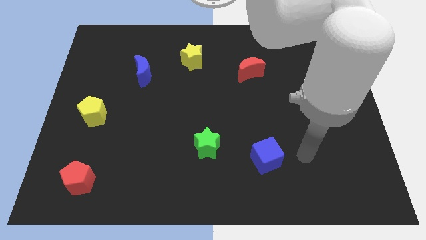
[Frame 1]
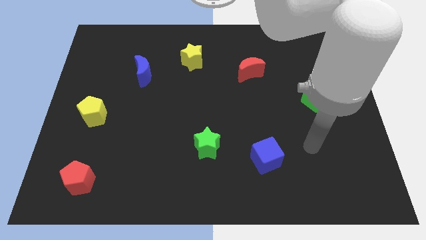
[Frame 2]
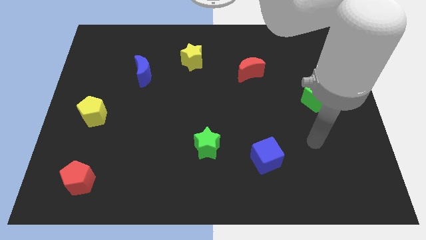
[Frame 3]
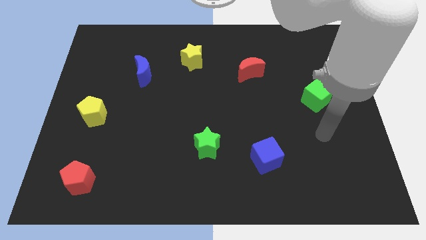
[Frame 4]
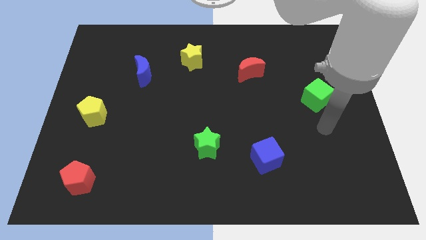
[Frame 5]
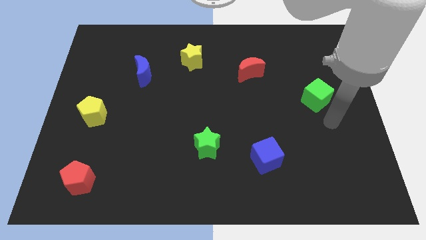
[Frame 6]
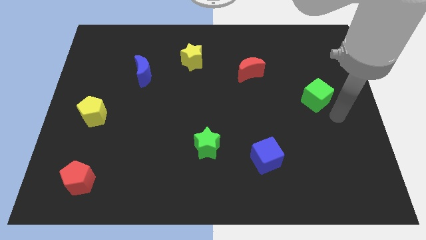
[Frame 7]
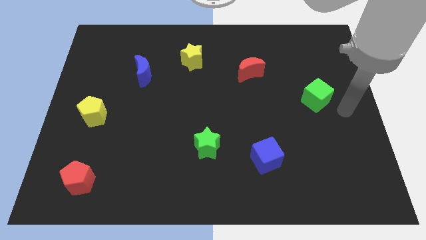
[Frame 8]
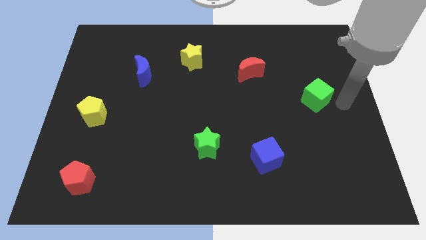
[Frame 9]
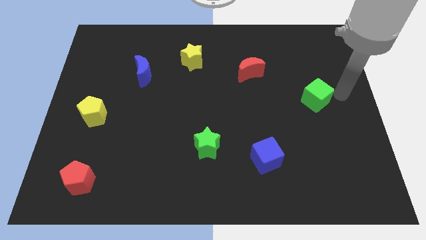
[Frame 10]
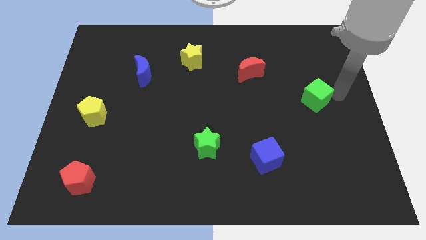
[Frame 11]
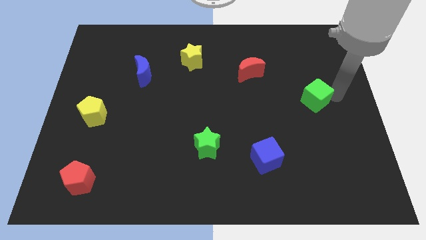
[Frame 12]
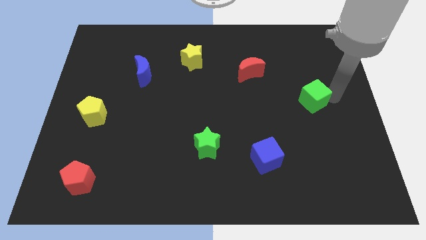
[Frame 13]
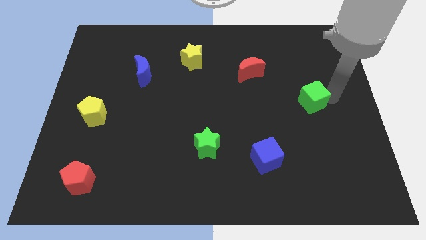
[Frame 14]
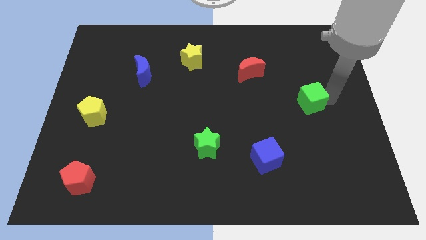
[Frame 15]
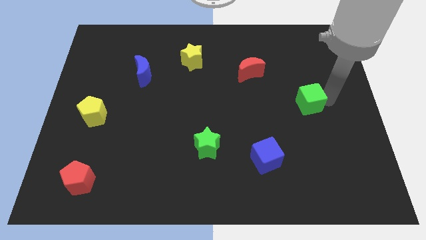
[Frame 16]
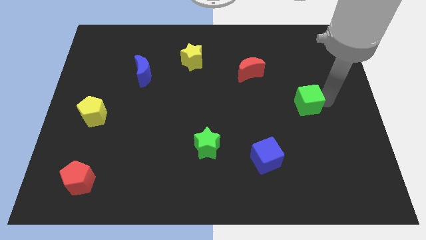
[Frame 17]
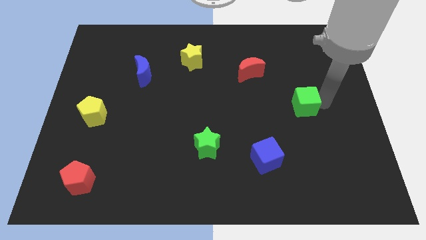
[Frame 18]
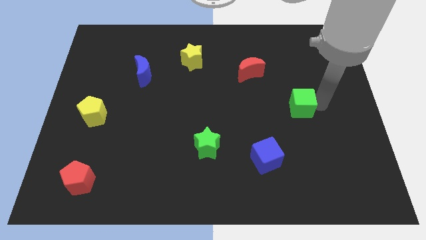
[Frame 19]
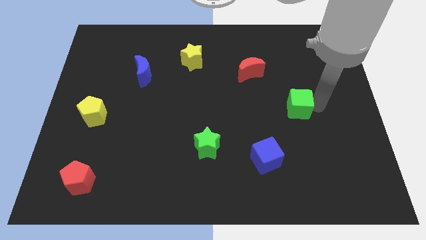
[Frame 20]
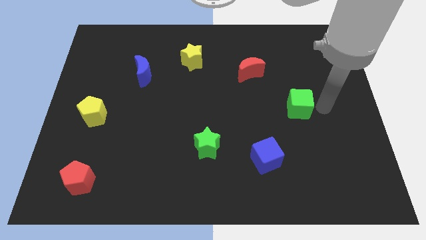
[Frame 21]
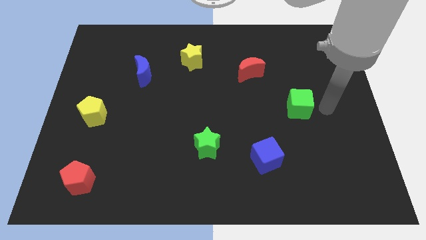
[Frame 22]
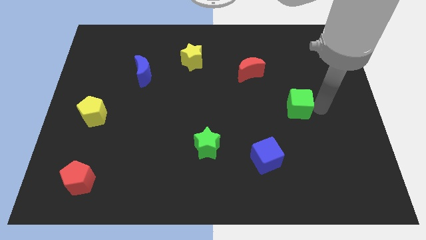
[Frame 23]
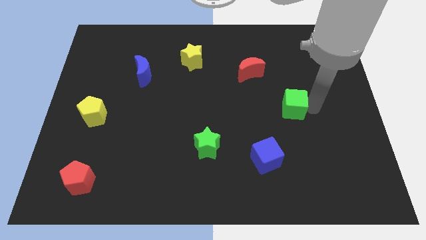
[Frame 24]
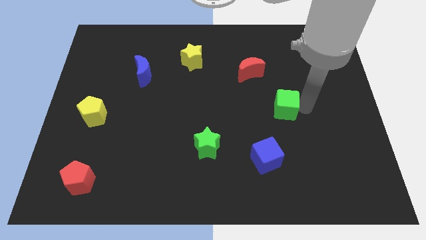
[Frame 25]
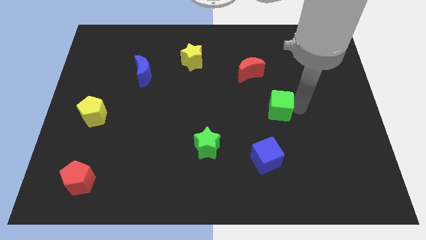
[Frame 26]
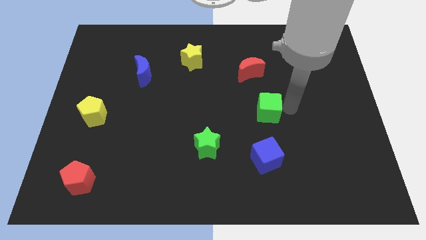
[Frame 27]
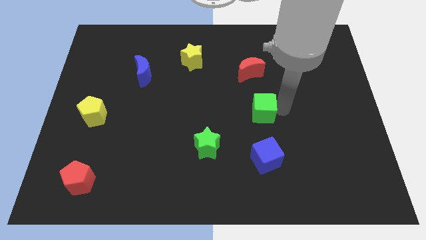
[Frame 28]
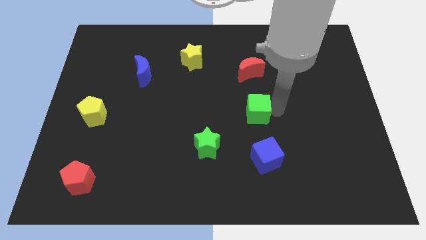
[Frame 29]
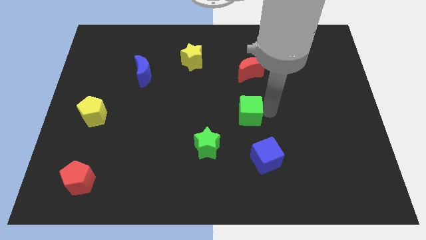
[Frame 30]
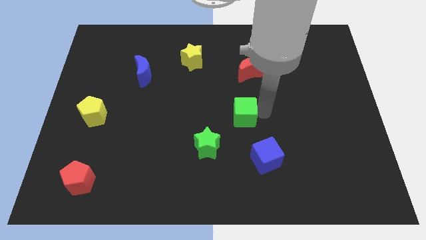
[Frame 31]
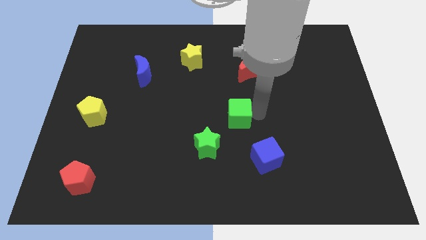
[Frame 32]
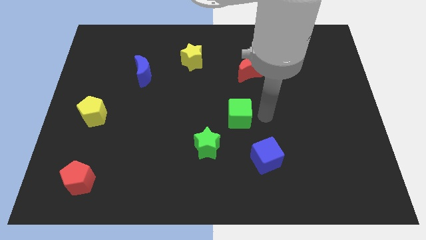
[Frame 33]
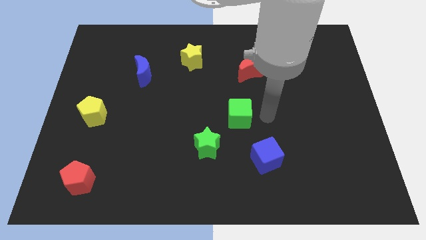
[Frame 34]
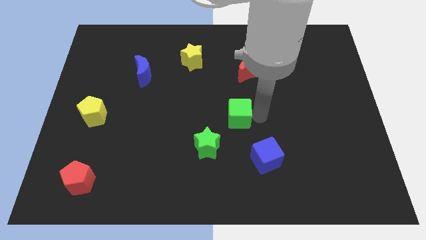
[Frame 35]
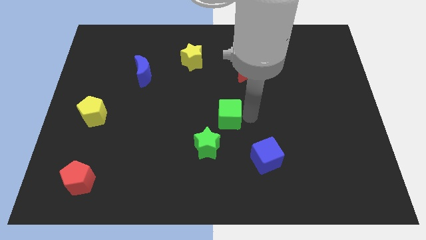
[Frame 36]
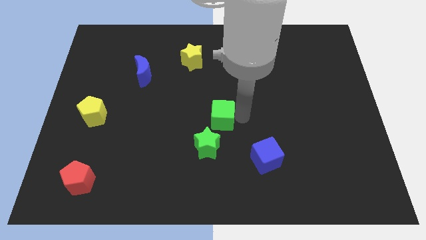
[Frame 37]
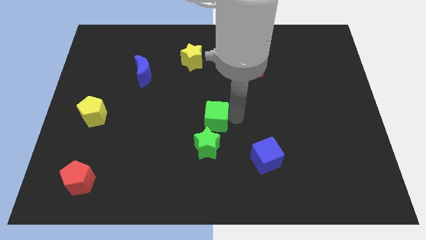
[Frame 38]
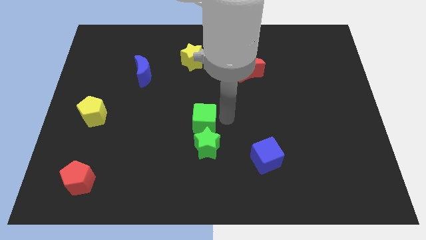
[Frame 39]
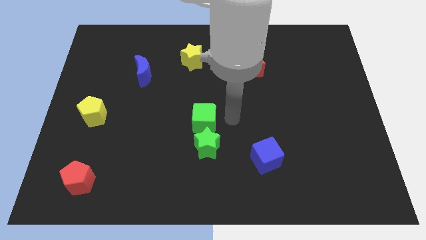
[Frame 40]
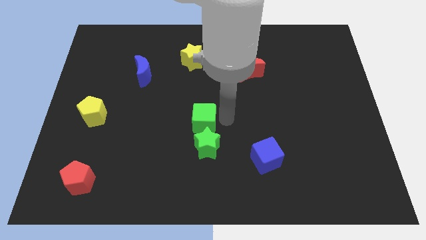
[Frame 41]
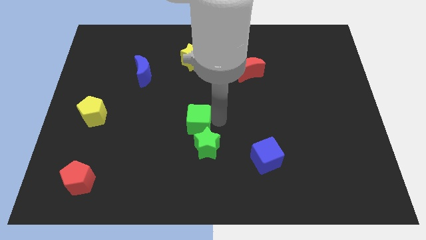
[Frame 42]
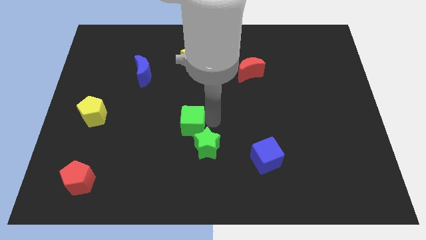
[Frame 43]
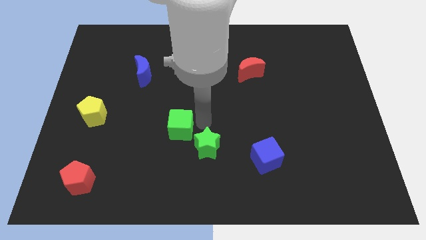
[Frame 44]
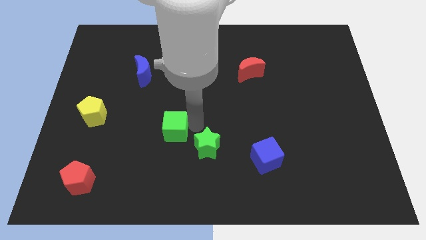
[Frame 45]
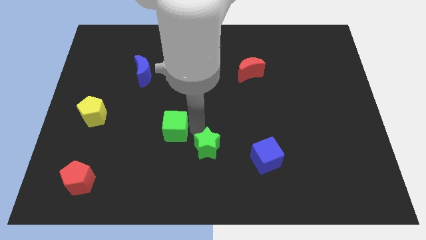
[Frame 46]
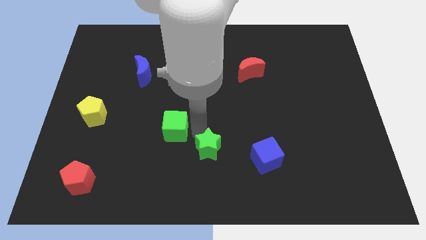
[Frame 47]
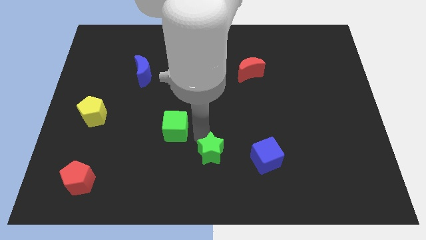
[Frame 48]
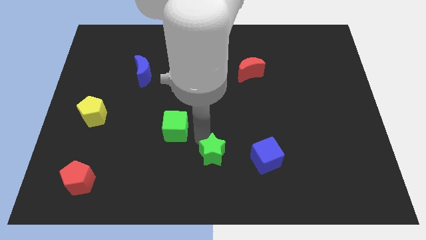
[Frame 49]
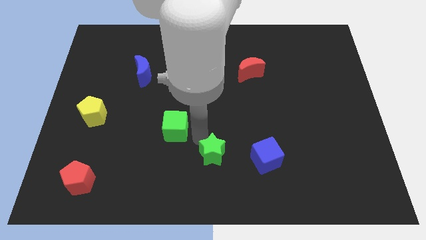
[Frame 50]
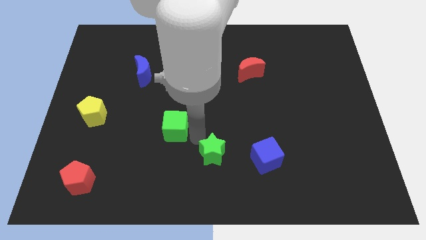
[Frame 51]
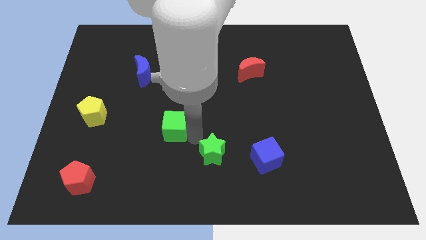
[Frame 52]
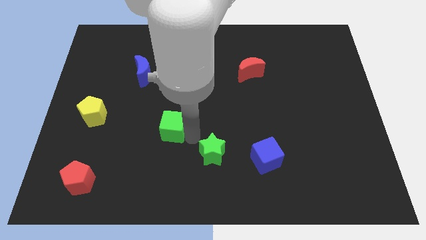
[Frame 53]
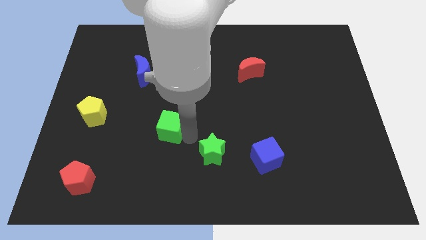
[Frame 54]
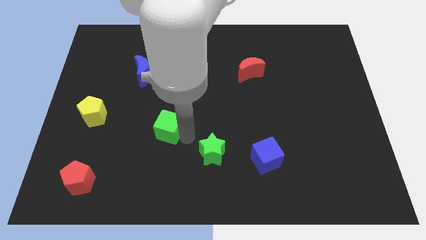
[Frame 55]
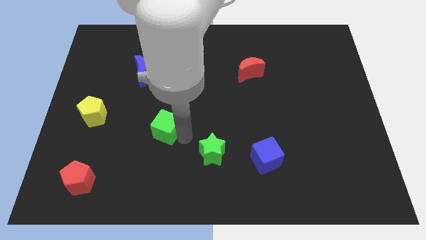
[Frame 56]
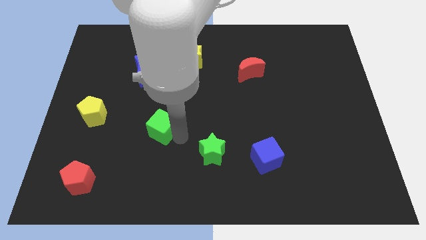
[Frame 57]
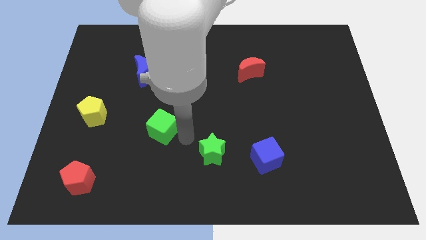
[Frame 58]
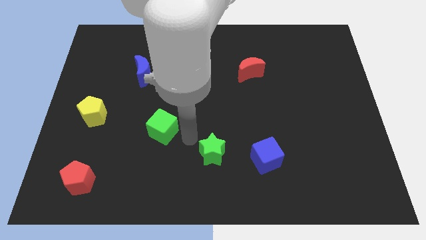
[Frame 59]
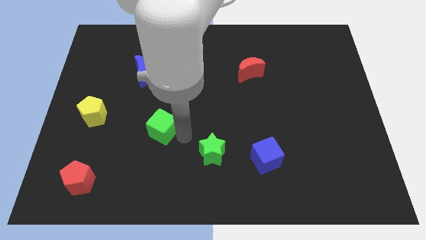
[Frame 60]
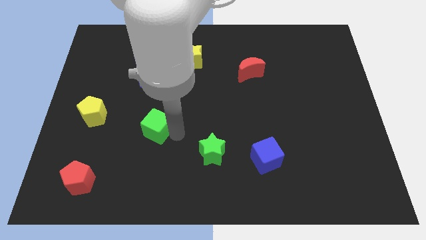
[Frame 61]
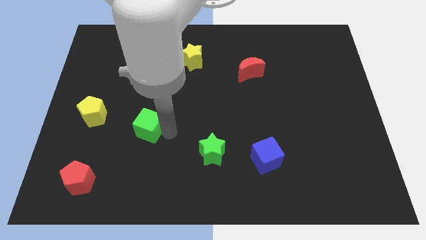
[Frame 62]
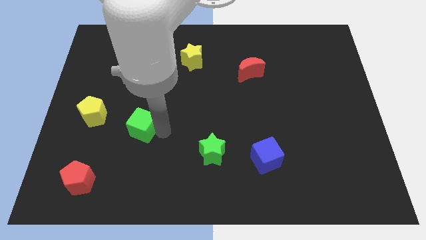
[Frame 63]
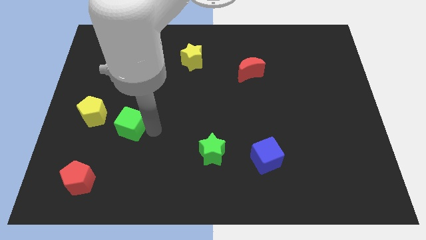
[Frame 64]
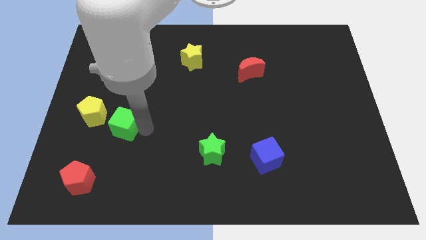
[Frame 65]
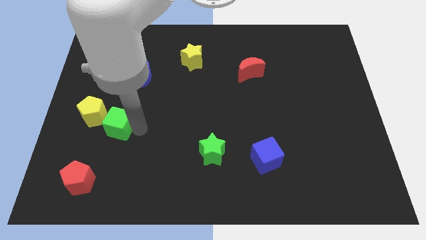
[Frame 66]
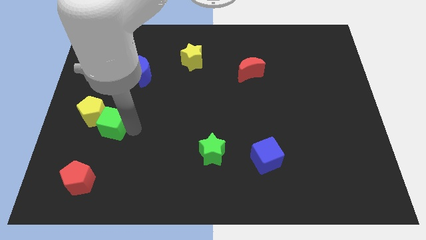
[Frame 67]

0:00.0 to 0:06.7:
move the green cube to the yellow pentagon

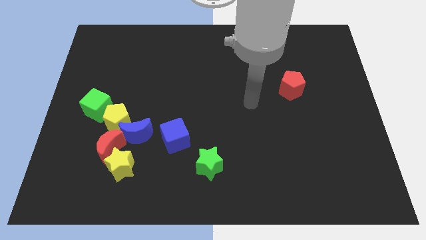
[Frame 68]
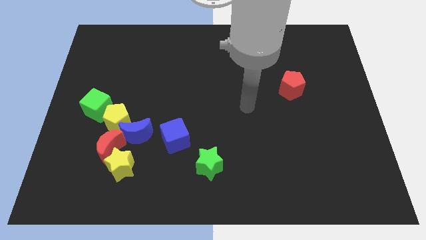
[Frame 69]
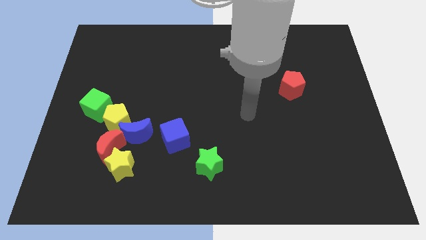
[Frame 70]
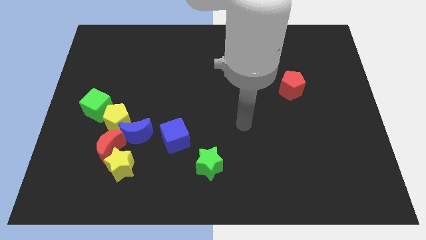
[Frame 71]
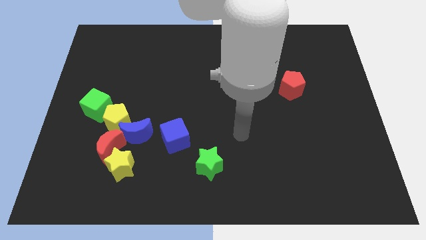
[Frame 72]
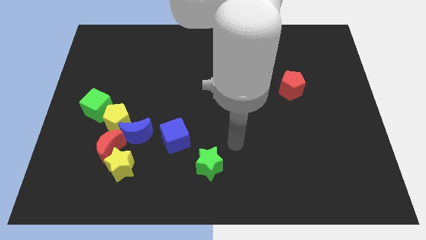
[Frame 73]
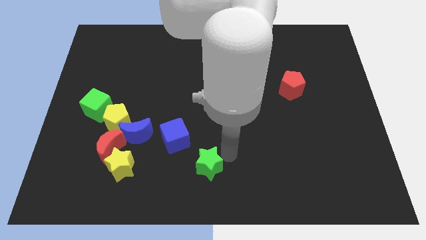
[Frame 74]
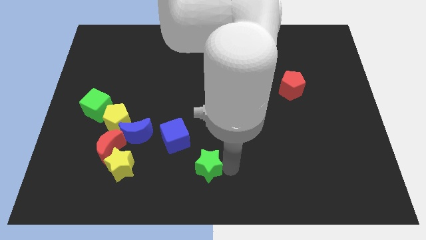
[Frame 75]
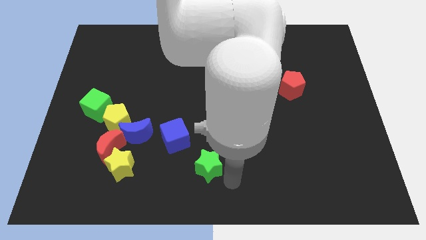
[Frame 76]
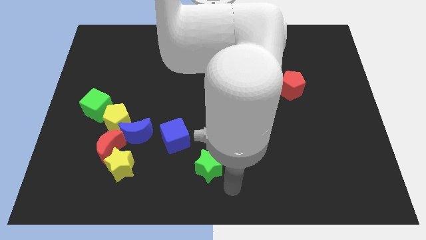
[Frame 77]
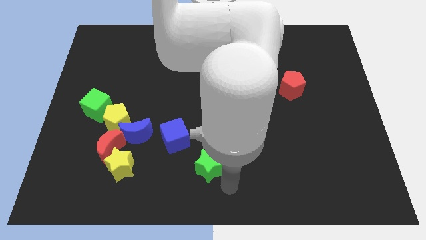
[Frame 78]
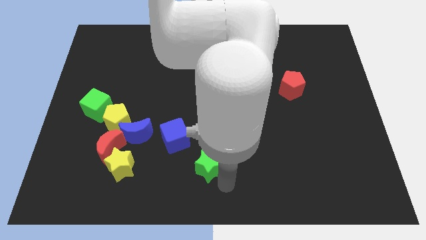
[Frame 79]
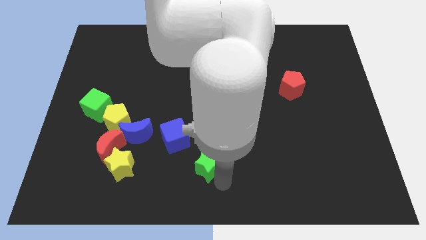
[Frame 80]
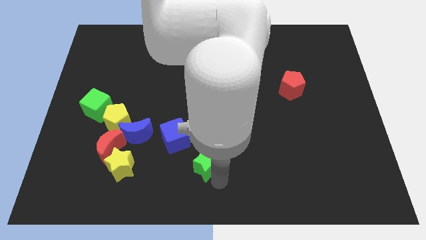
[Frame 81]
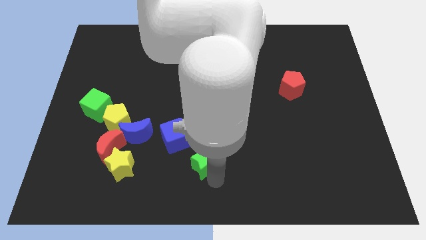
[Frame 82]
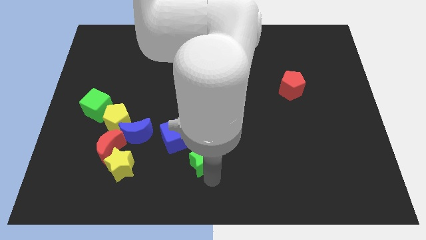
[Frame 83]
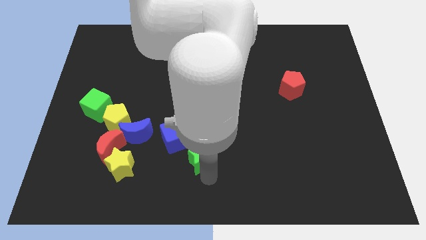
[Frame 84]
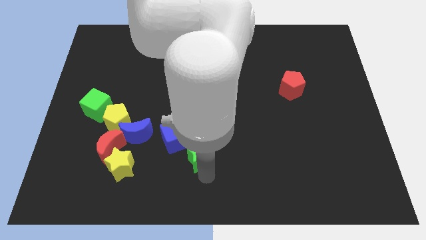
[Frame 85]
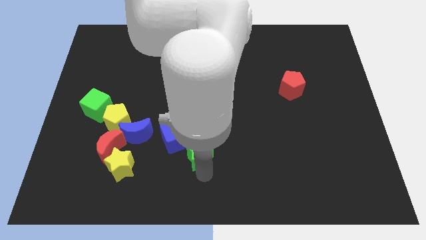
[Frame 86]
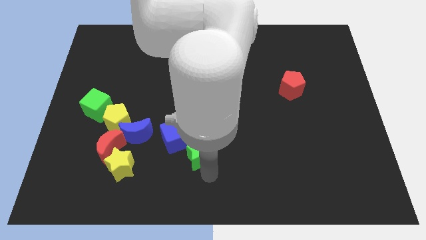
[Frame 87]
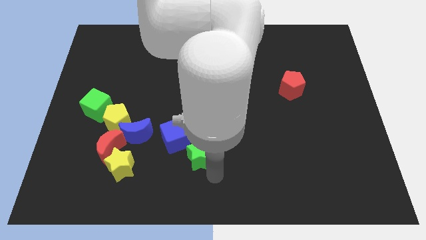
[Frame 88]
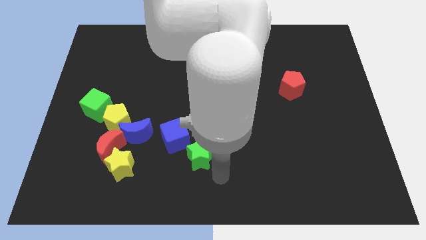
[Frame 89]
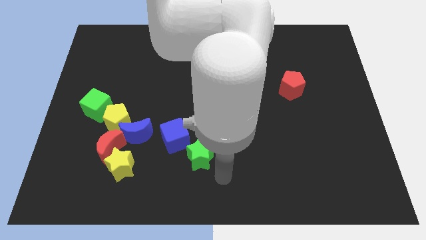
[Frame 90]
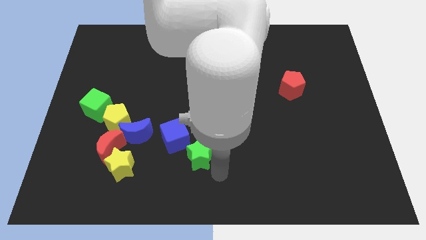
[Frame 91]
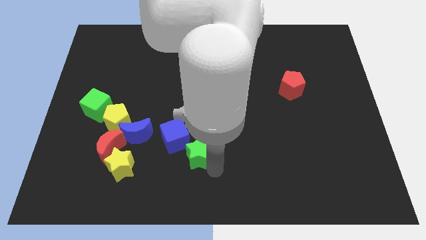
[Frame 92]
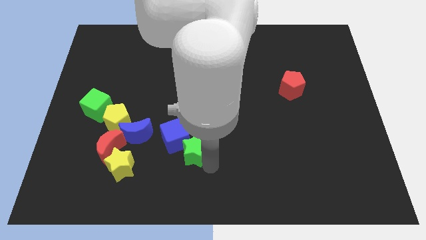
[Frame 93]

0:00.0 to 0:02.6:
move the green star next to the blue cube
